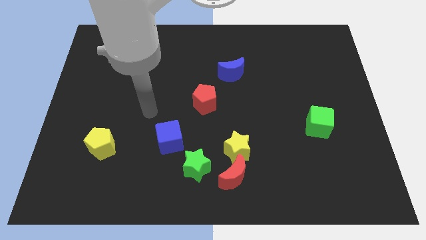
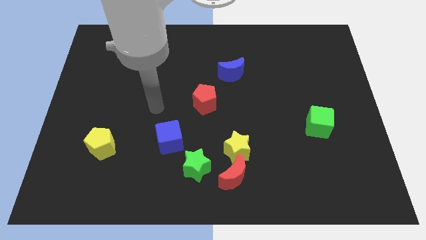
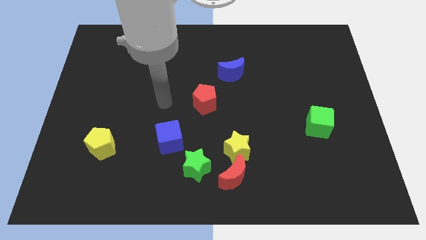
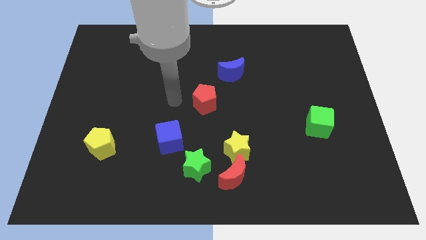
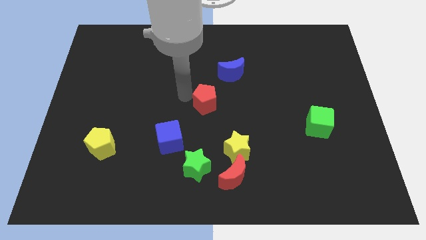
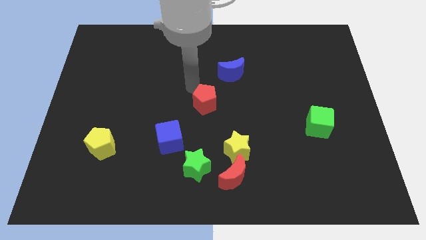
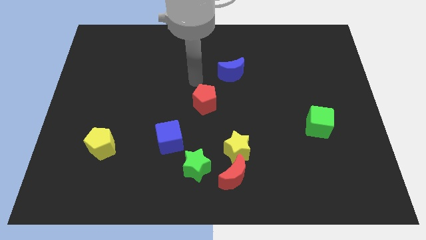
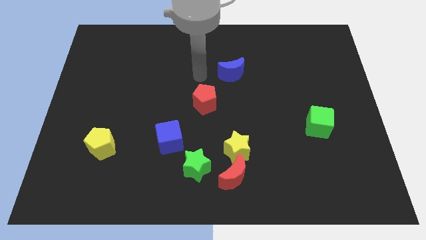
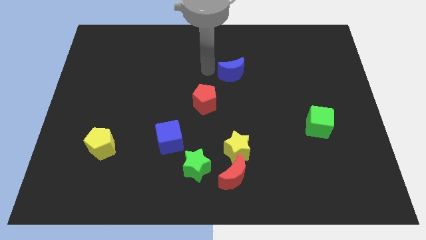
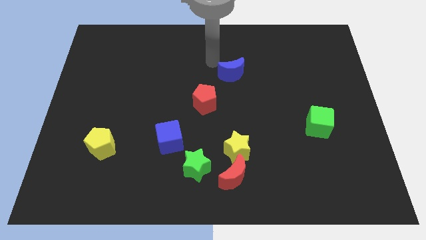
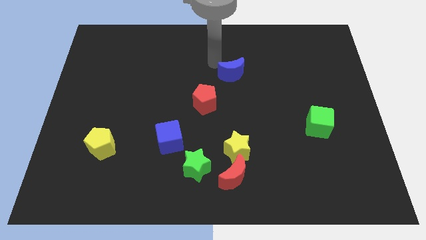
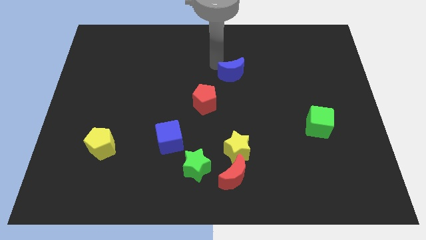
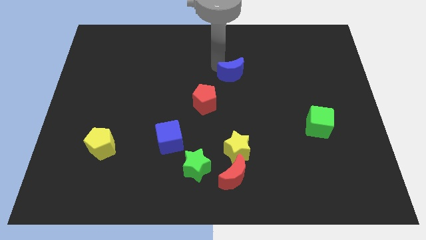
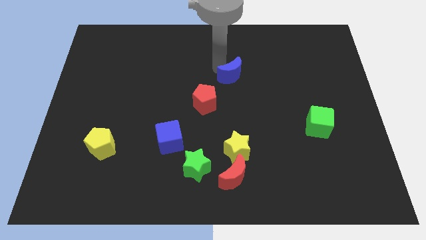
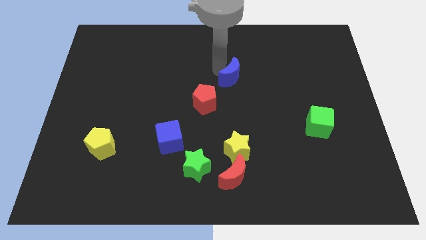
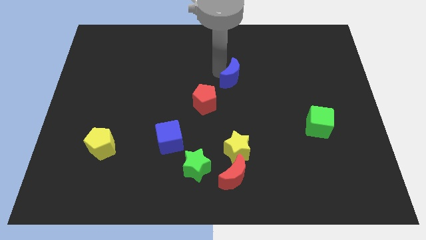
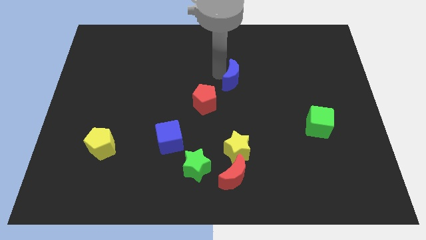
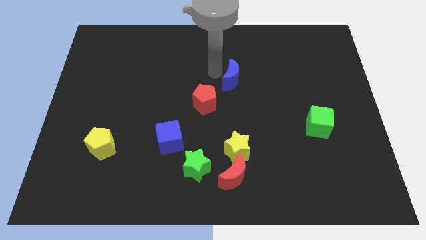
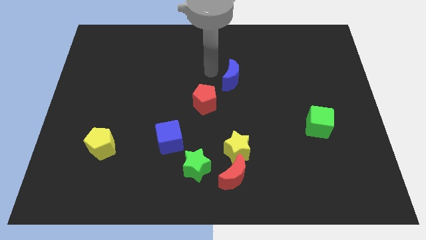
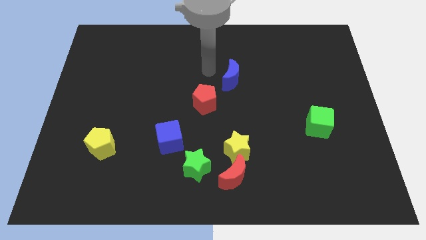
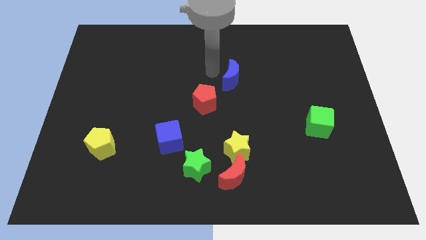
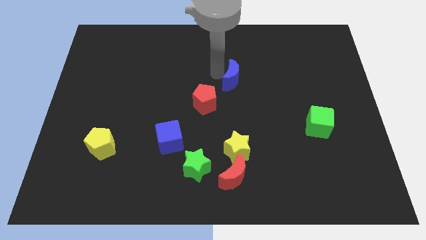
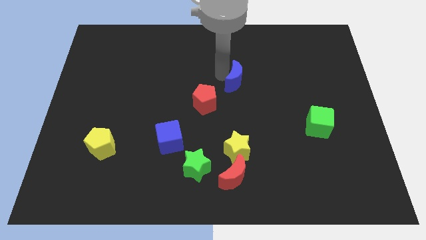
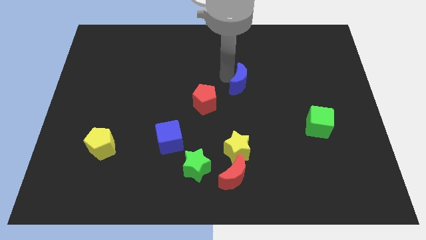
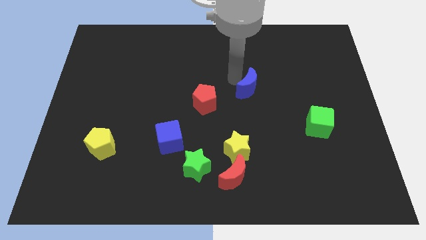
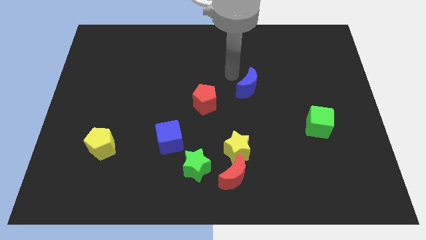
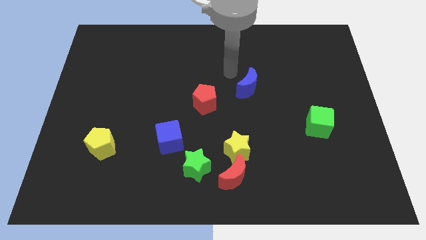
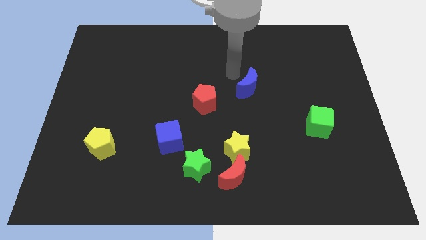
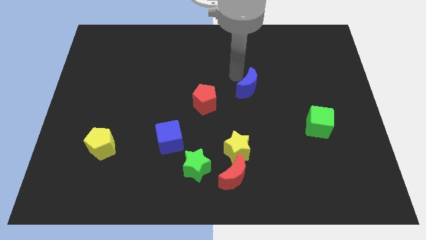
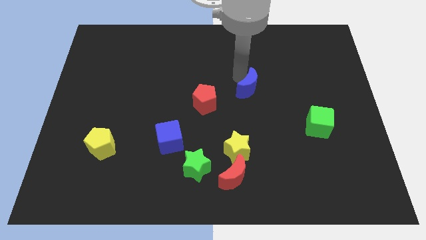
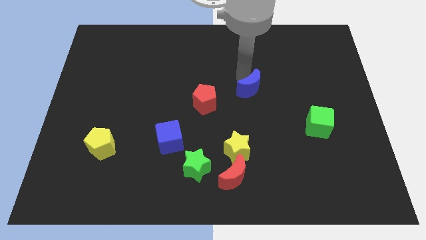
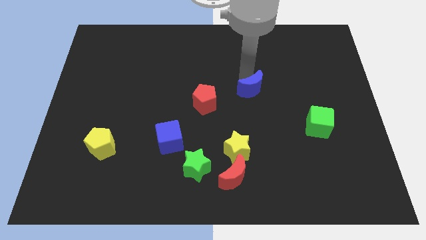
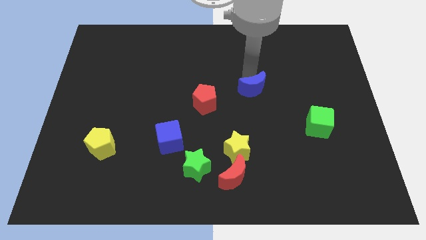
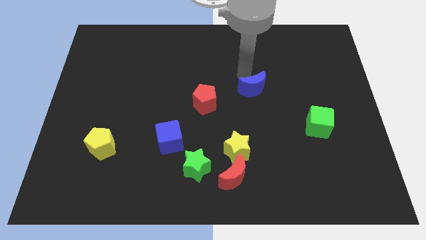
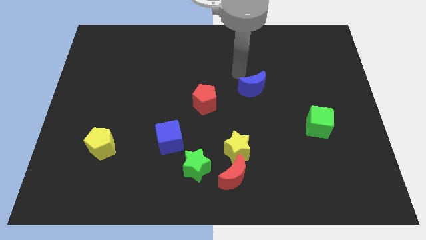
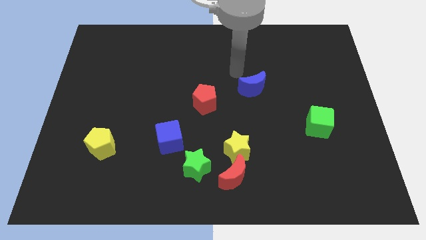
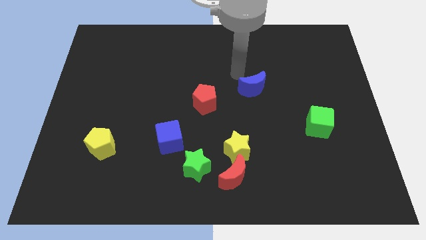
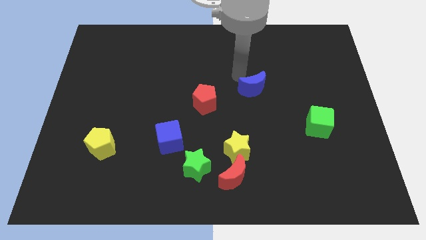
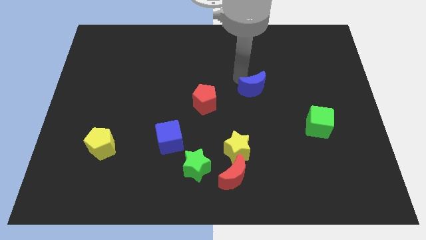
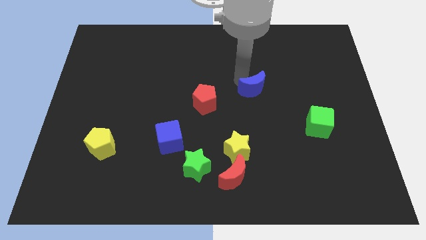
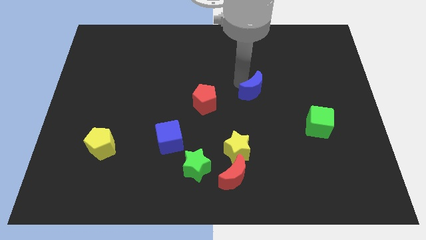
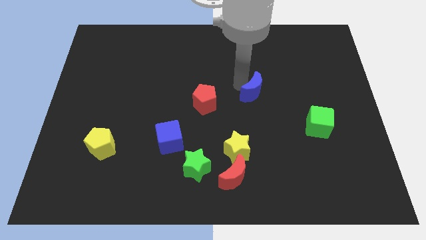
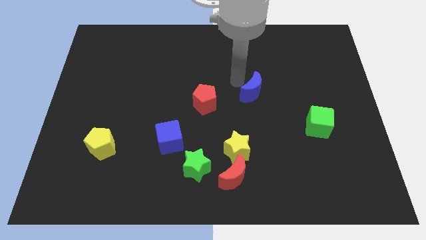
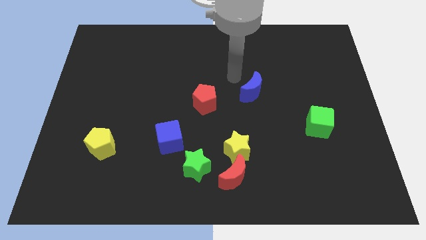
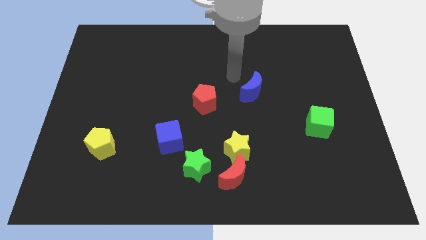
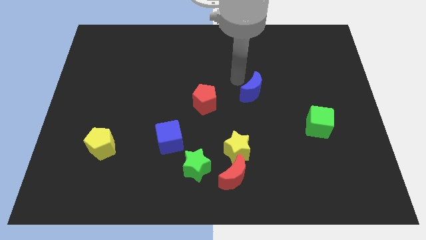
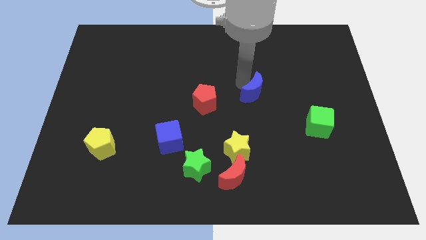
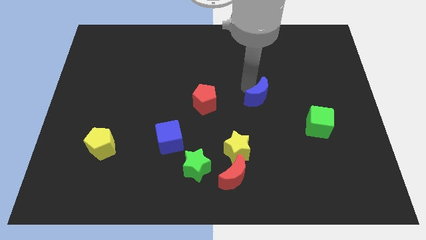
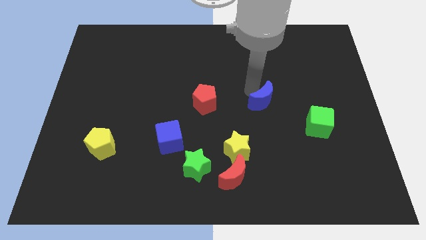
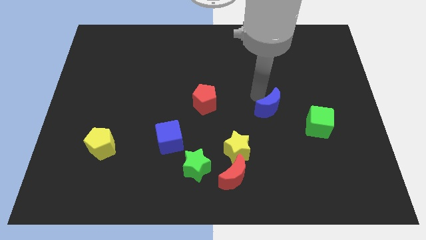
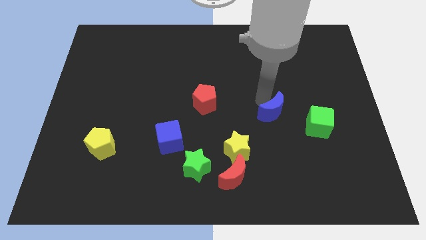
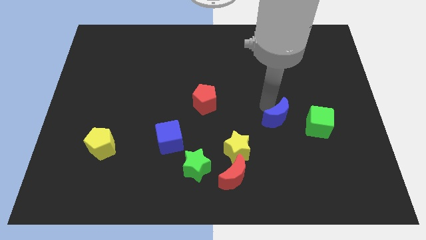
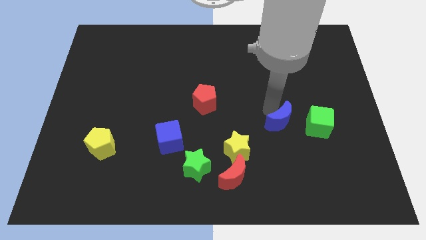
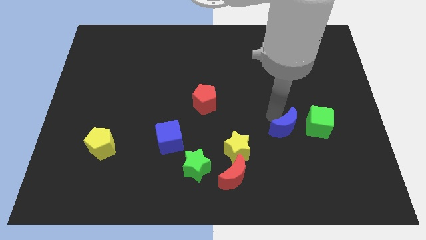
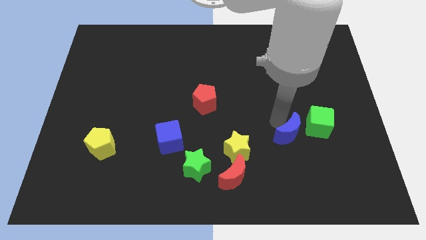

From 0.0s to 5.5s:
move the blue moon down and then right

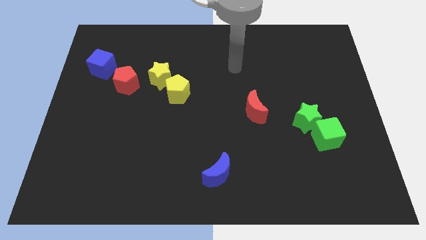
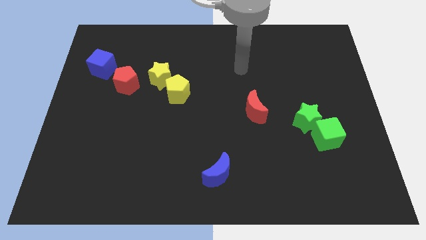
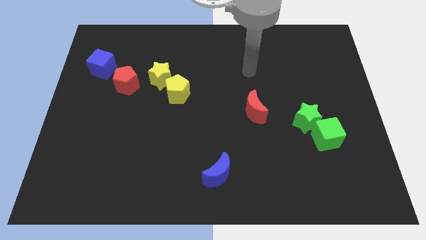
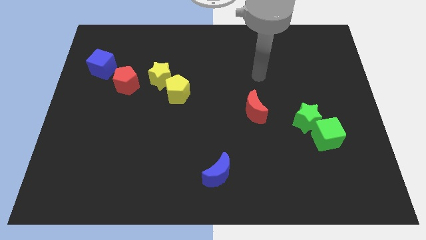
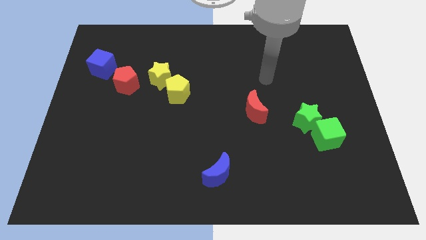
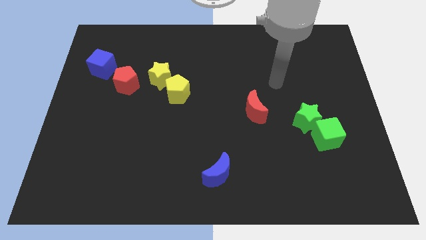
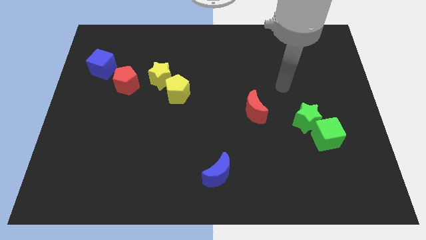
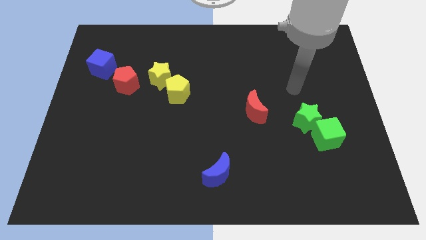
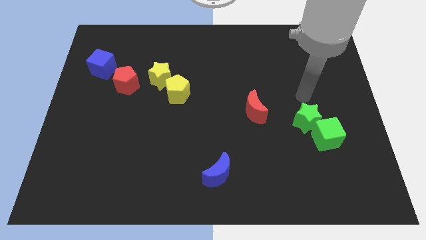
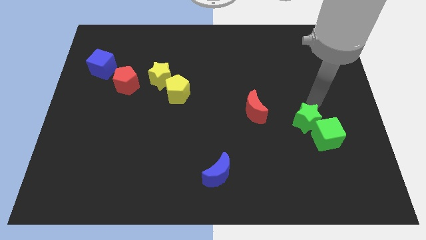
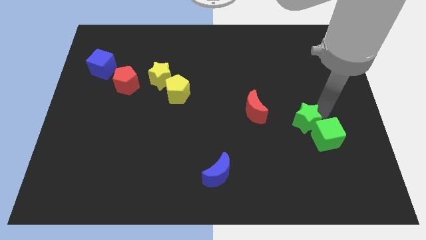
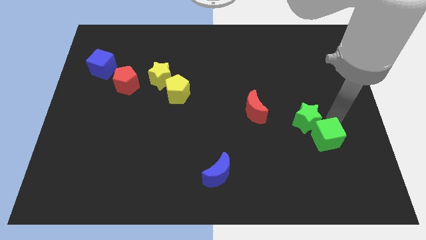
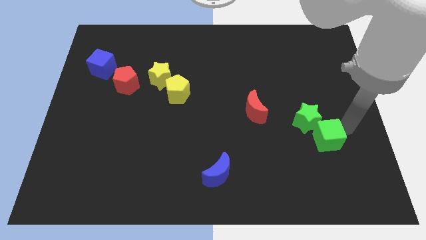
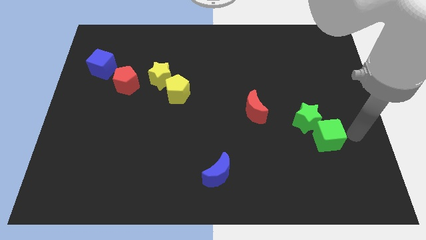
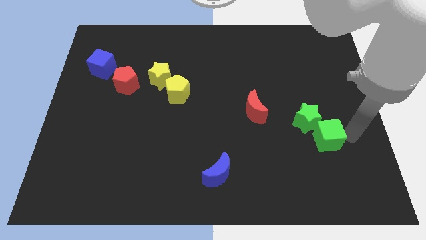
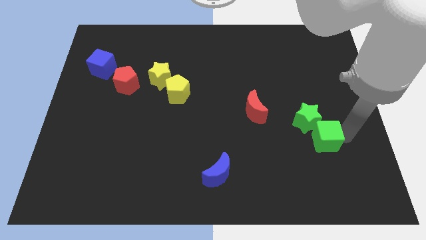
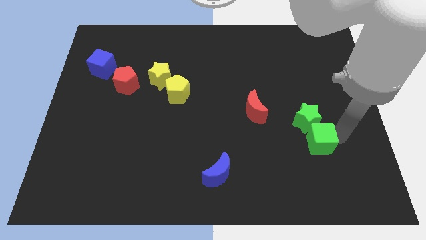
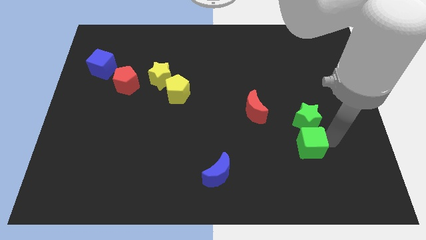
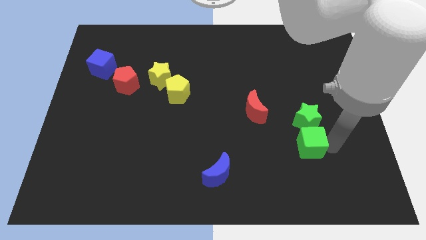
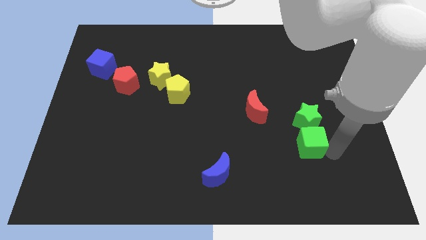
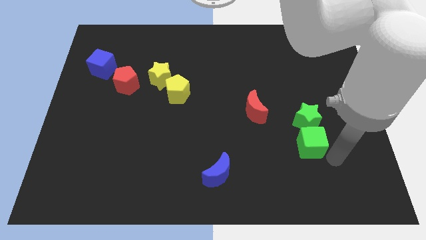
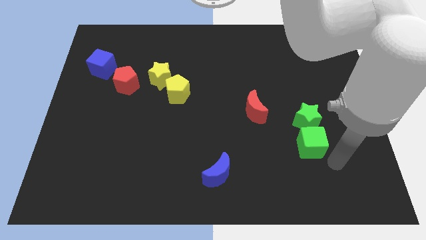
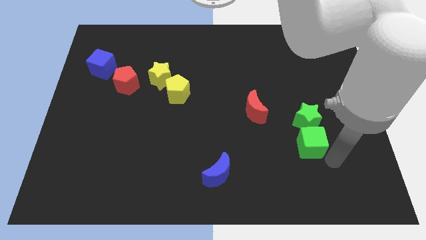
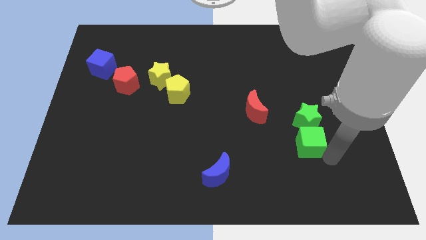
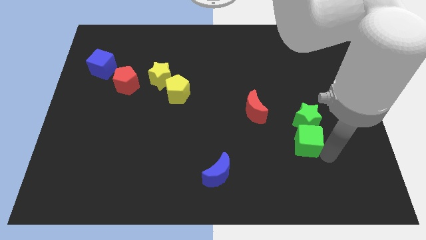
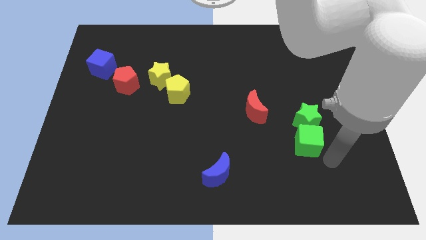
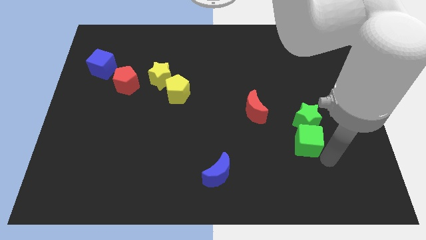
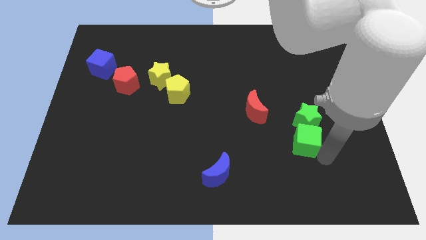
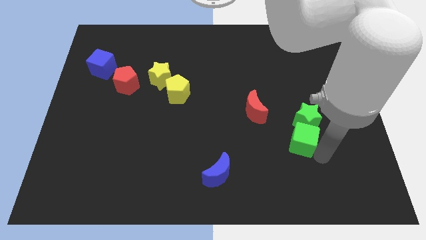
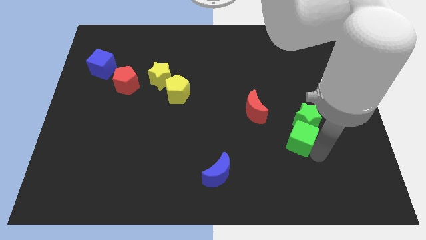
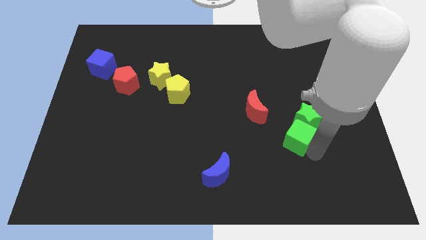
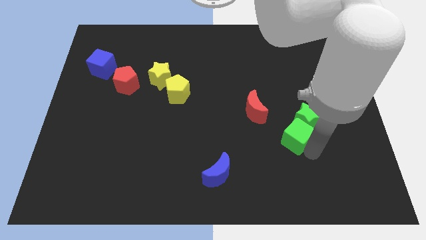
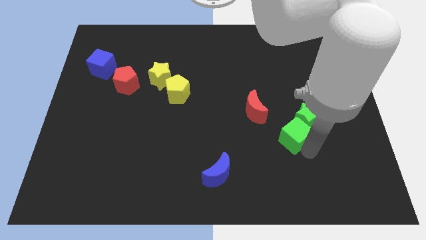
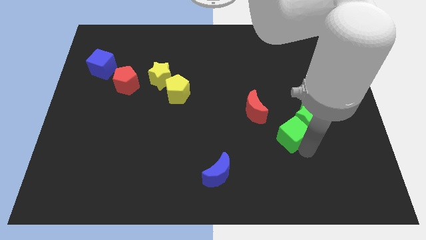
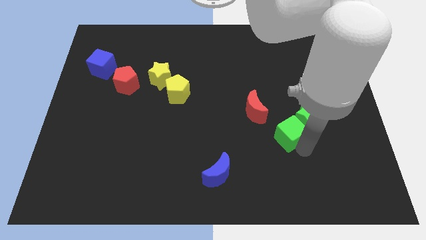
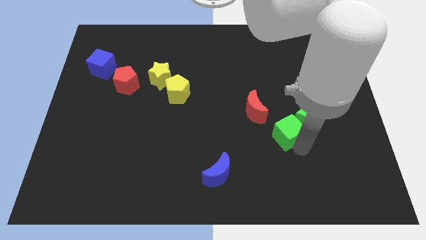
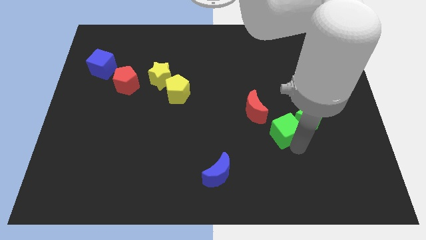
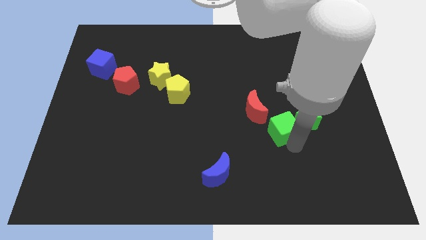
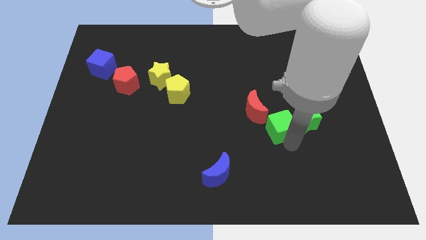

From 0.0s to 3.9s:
slightly push the green cube upwards and left
